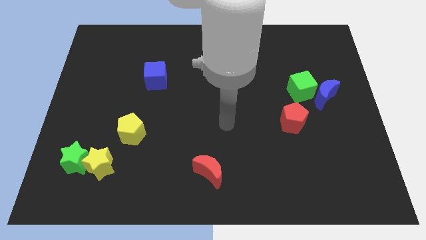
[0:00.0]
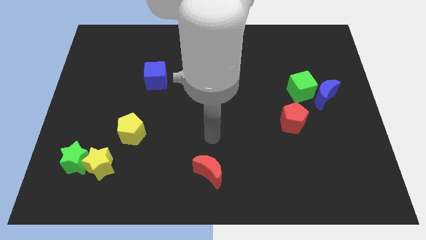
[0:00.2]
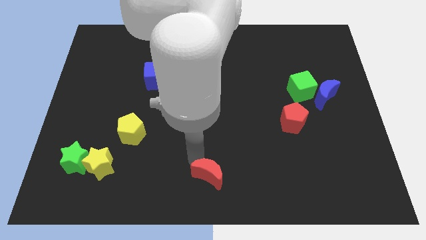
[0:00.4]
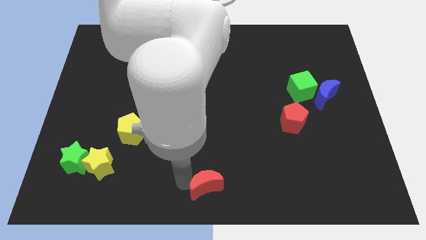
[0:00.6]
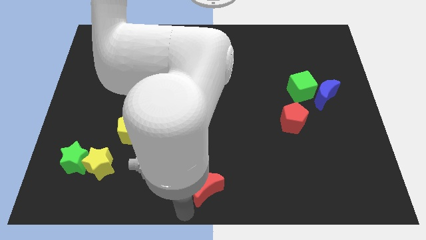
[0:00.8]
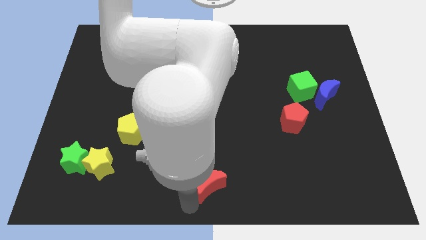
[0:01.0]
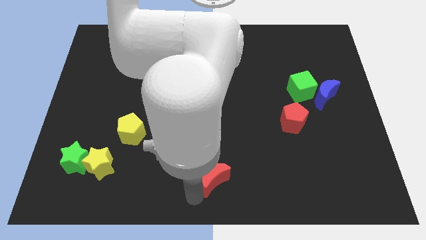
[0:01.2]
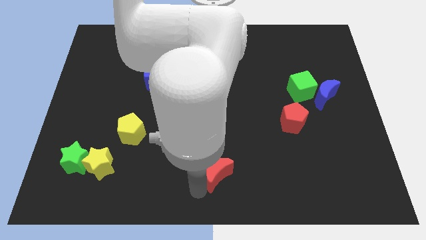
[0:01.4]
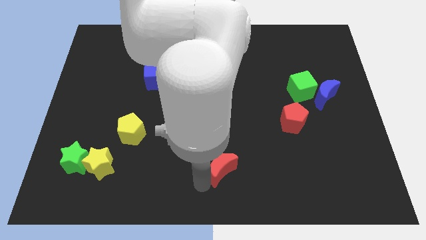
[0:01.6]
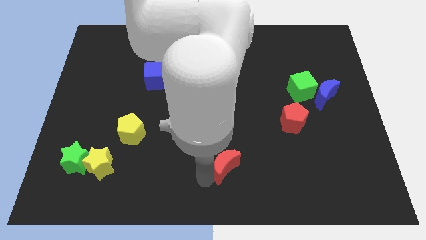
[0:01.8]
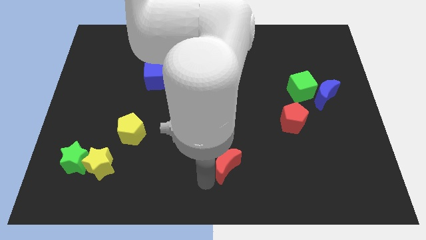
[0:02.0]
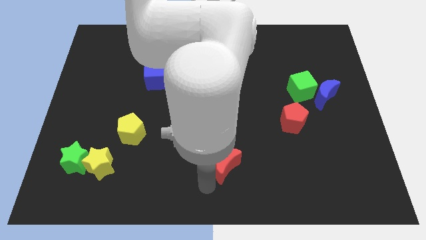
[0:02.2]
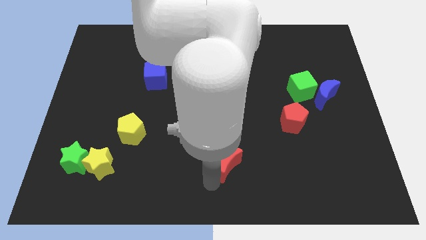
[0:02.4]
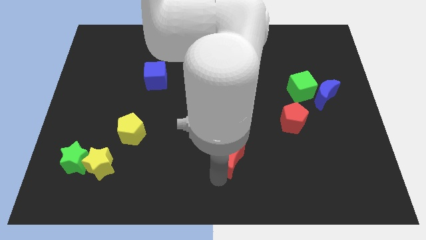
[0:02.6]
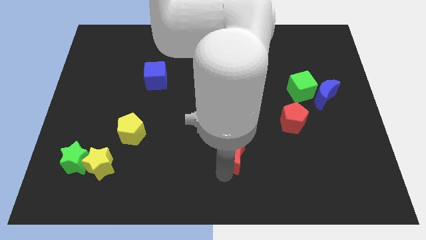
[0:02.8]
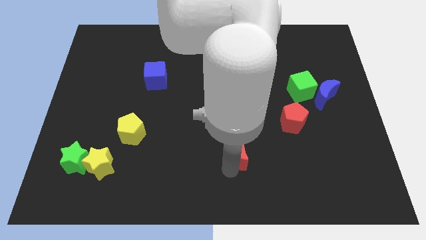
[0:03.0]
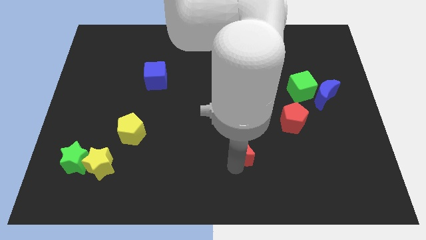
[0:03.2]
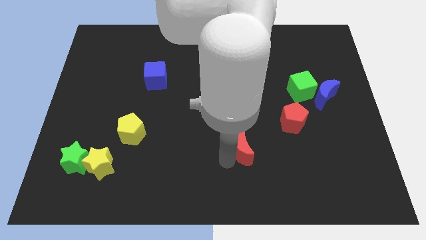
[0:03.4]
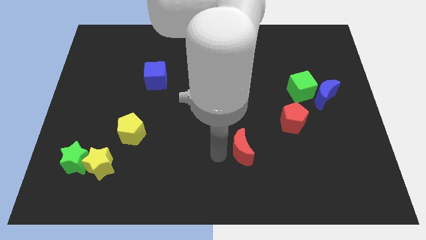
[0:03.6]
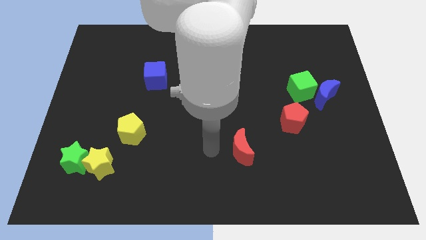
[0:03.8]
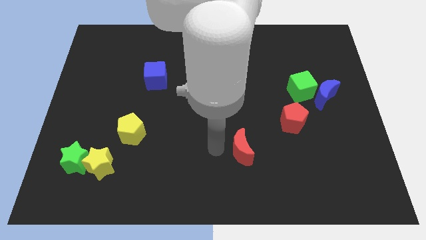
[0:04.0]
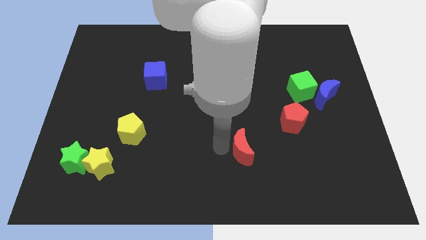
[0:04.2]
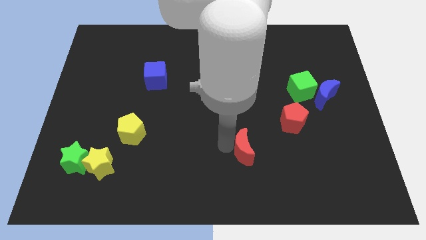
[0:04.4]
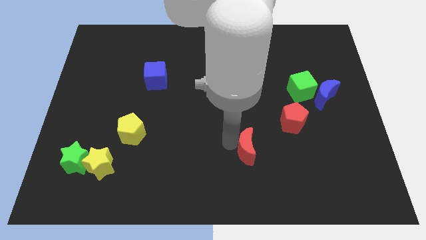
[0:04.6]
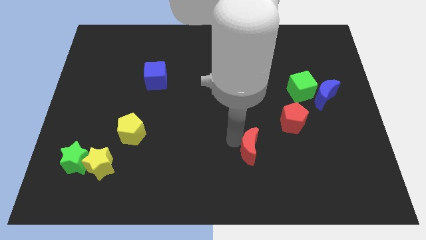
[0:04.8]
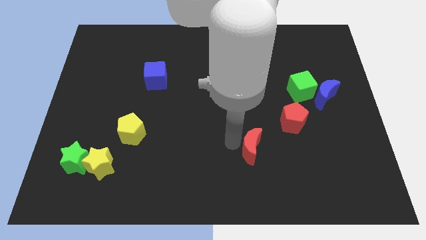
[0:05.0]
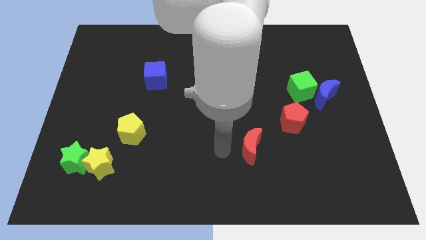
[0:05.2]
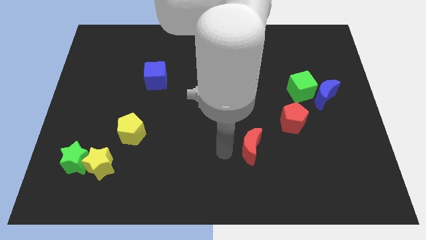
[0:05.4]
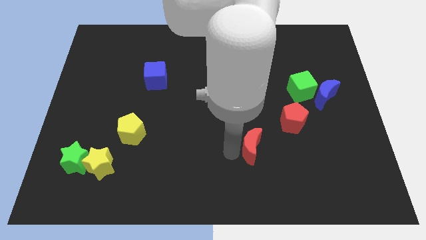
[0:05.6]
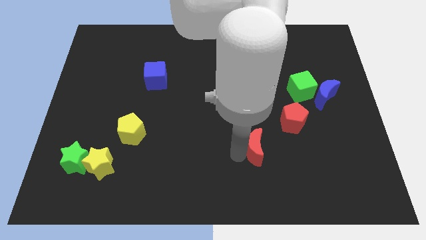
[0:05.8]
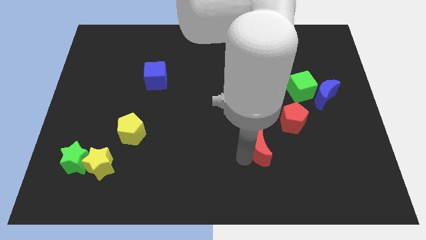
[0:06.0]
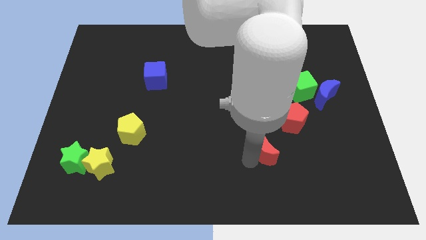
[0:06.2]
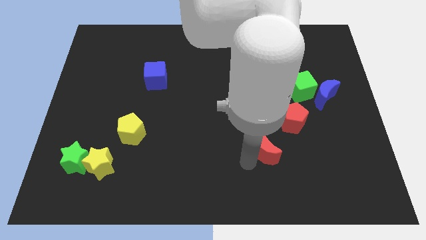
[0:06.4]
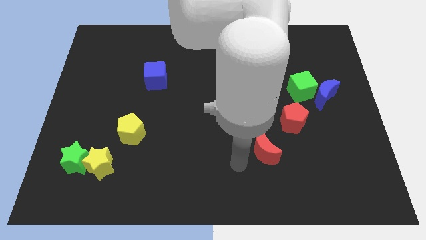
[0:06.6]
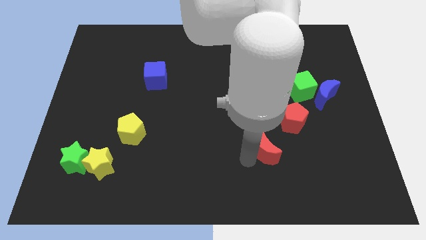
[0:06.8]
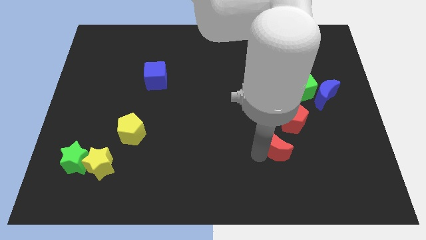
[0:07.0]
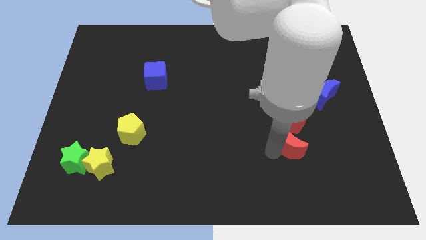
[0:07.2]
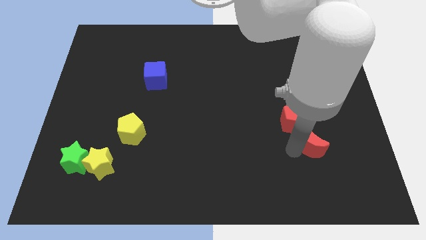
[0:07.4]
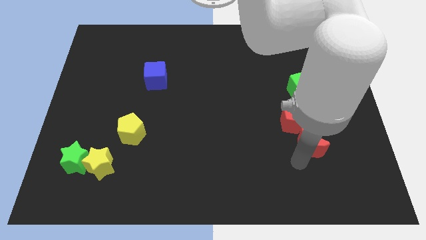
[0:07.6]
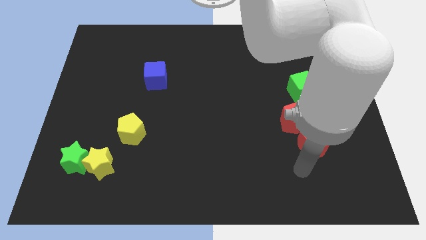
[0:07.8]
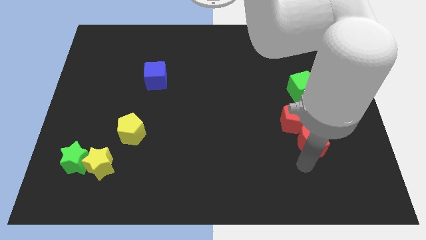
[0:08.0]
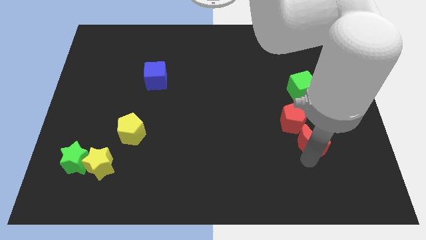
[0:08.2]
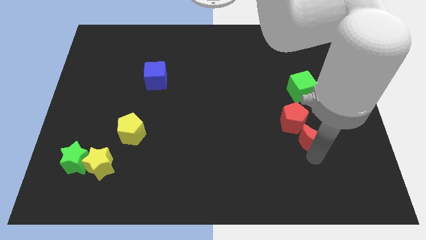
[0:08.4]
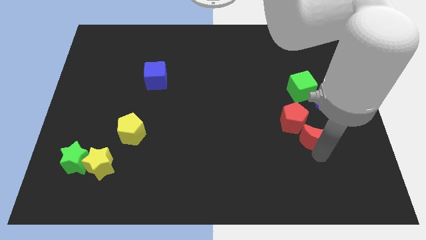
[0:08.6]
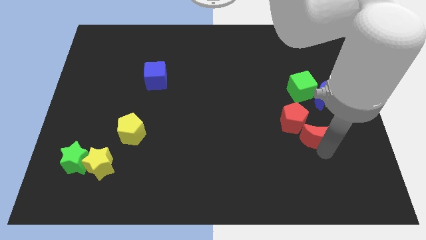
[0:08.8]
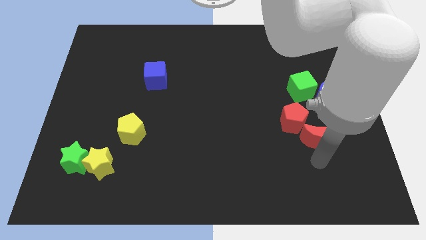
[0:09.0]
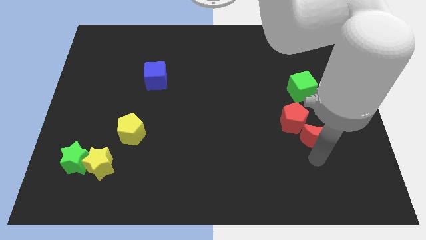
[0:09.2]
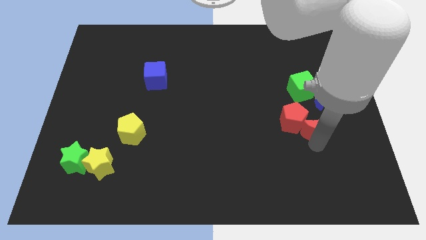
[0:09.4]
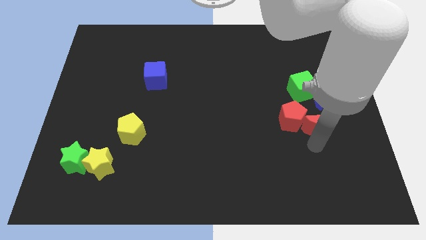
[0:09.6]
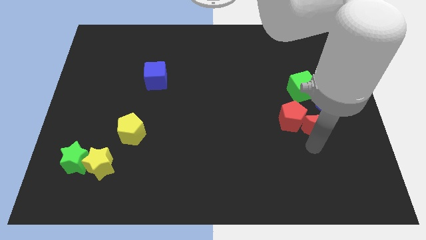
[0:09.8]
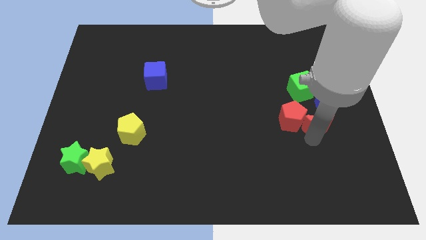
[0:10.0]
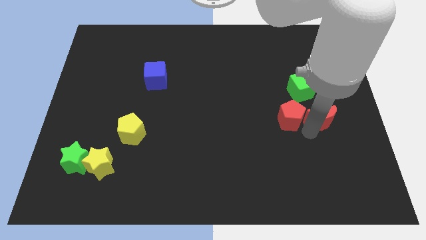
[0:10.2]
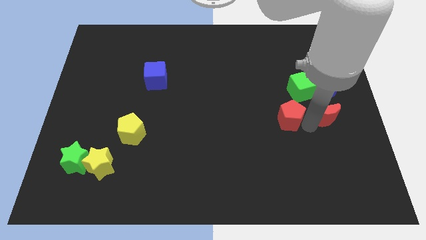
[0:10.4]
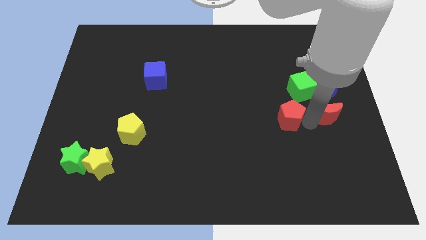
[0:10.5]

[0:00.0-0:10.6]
push the red moon to the blue moon

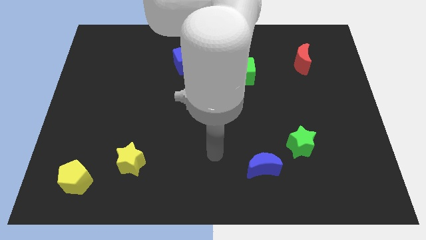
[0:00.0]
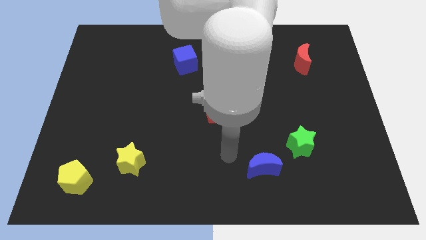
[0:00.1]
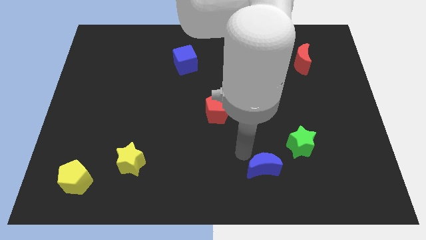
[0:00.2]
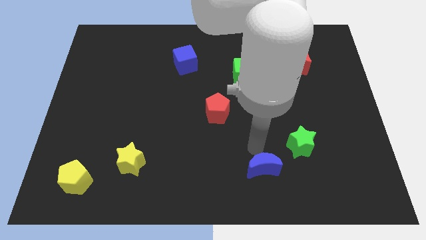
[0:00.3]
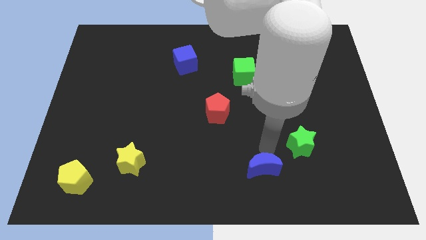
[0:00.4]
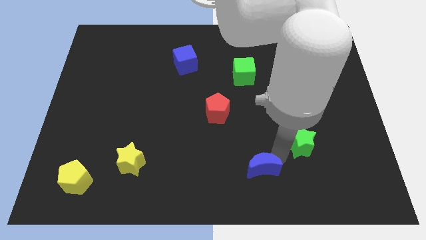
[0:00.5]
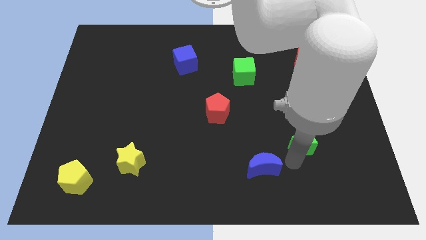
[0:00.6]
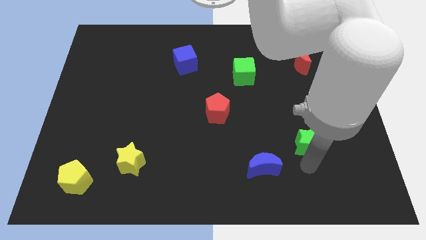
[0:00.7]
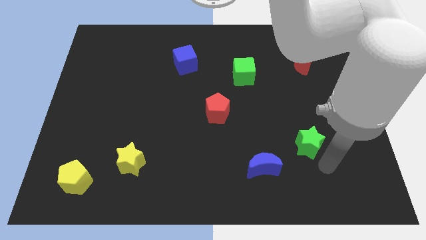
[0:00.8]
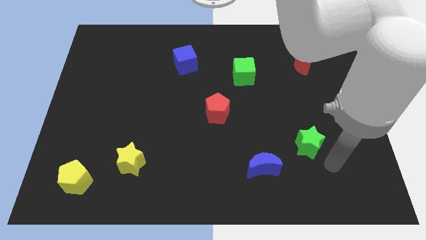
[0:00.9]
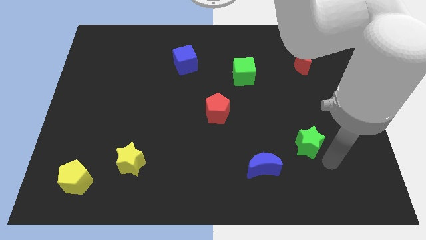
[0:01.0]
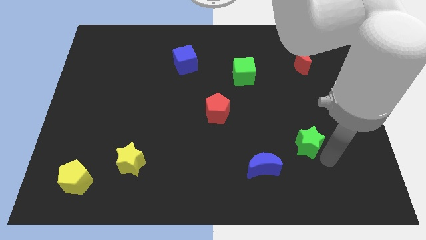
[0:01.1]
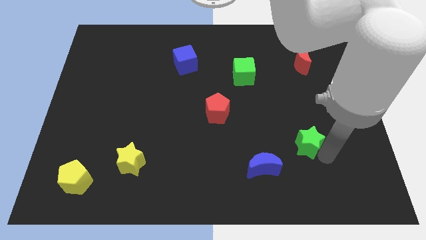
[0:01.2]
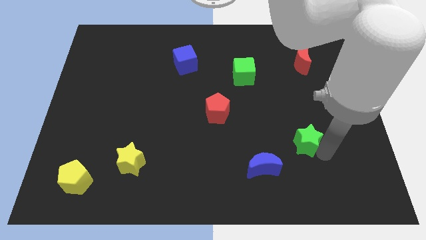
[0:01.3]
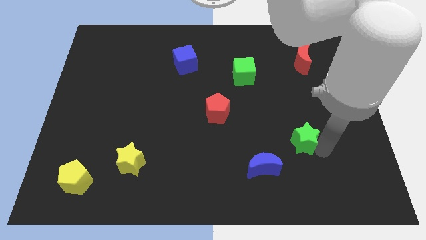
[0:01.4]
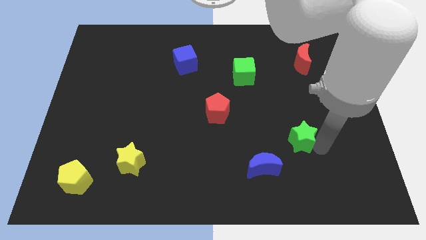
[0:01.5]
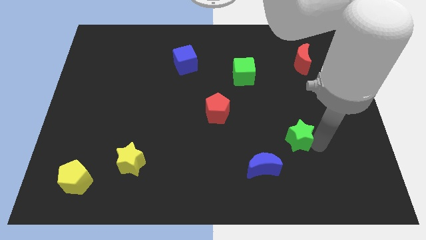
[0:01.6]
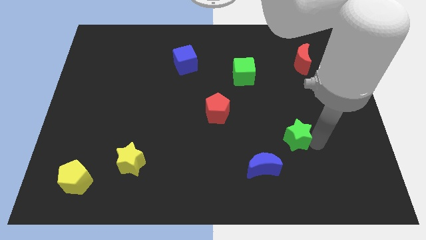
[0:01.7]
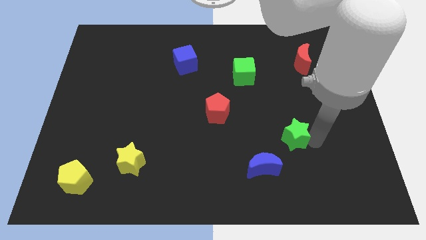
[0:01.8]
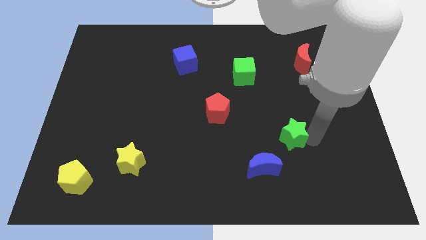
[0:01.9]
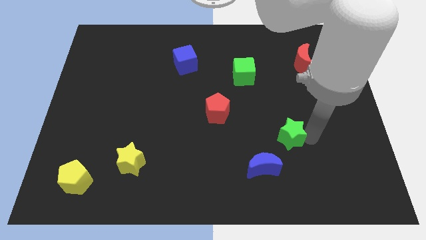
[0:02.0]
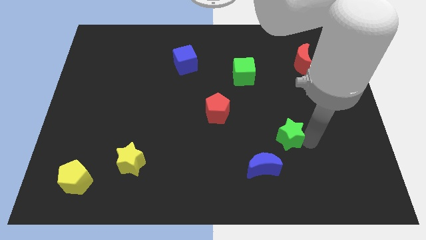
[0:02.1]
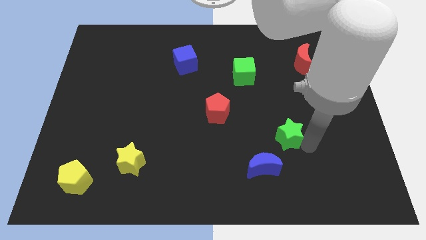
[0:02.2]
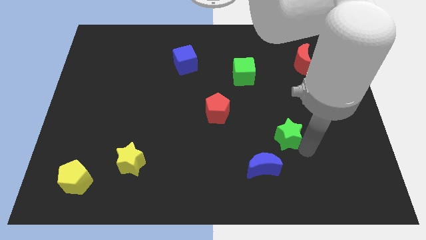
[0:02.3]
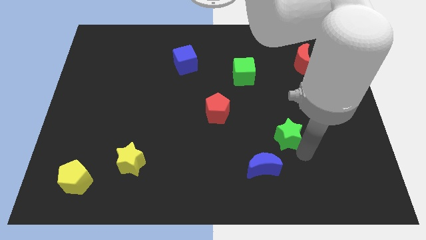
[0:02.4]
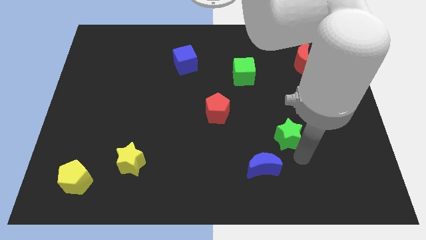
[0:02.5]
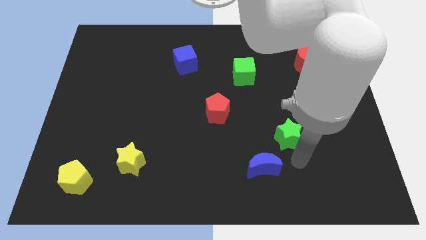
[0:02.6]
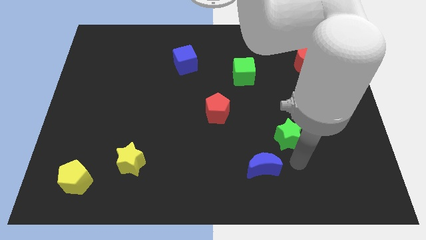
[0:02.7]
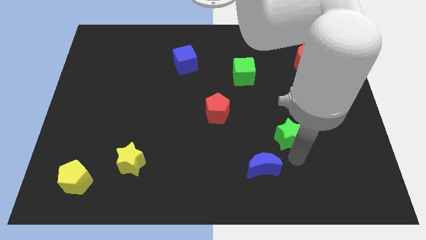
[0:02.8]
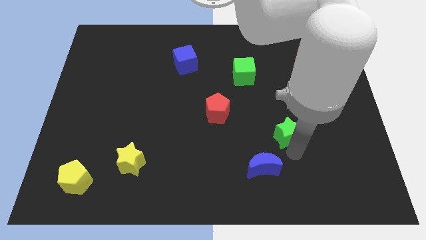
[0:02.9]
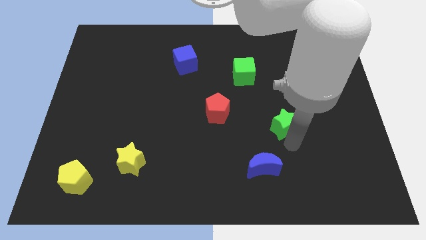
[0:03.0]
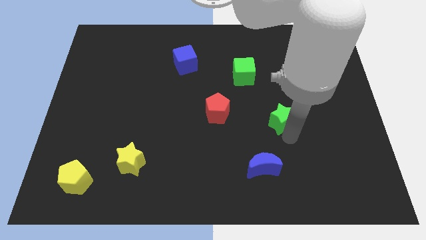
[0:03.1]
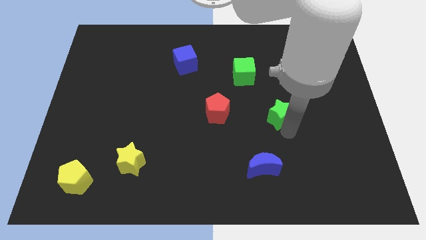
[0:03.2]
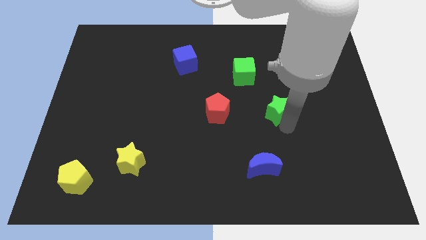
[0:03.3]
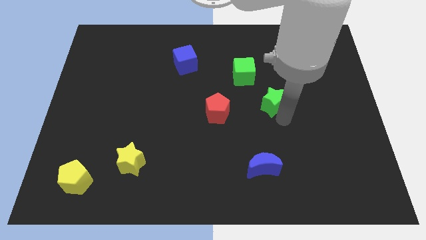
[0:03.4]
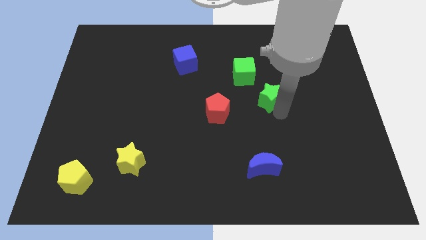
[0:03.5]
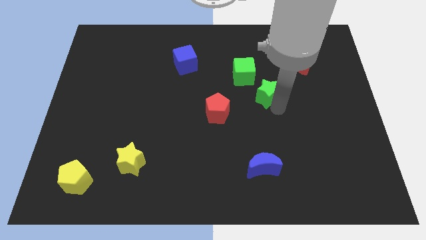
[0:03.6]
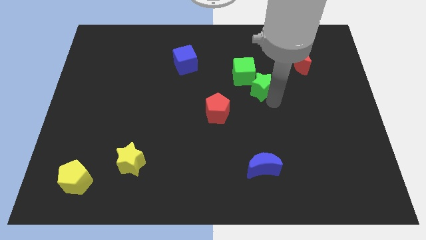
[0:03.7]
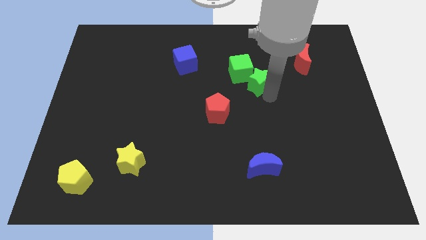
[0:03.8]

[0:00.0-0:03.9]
slide the green star close to the green cube
